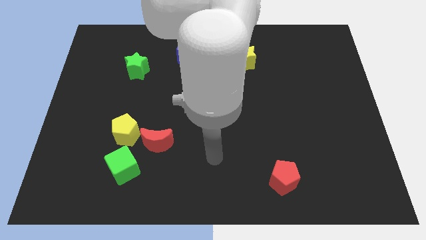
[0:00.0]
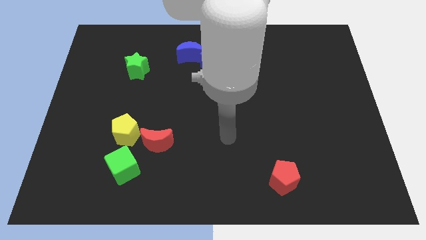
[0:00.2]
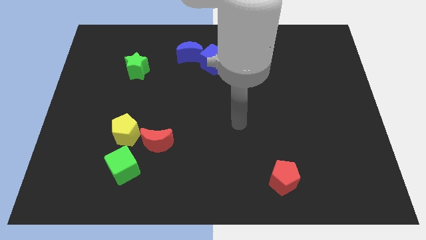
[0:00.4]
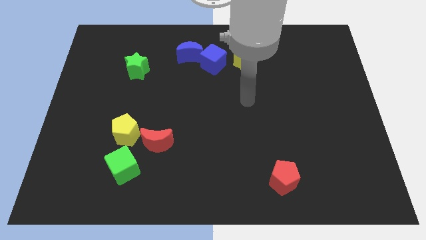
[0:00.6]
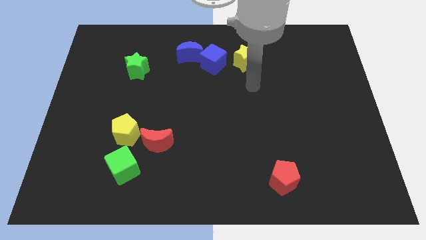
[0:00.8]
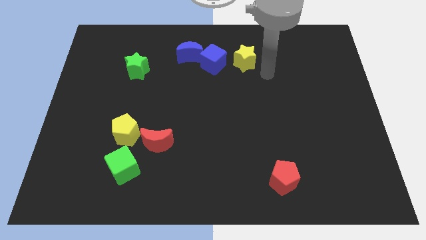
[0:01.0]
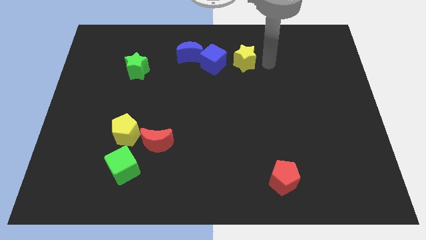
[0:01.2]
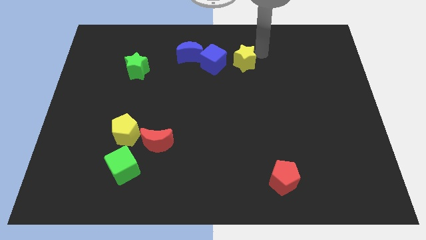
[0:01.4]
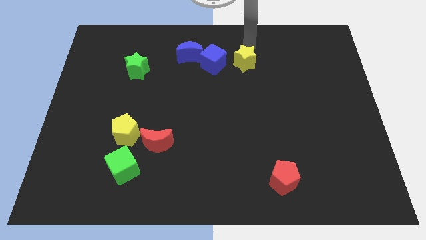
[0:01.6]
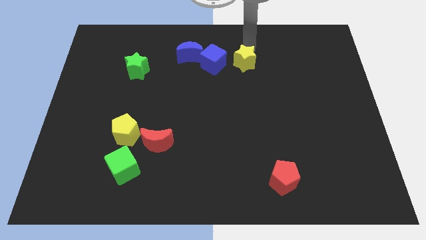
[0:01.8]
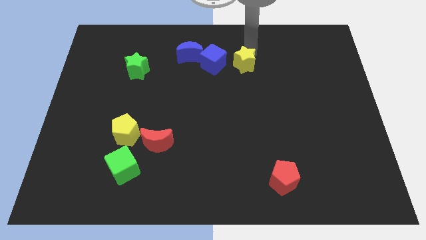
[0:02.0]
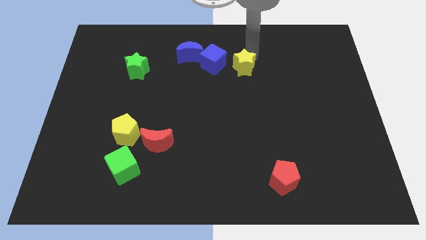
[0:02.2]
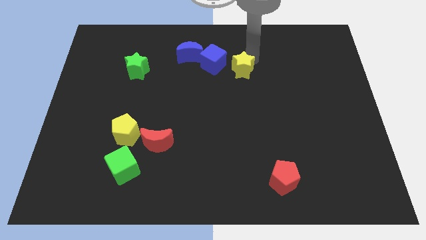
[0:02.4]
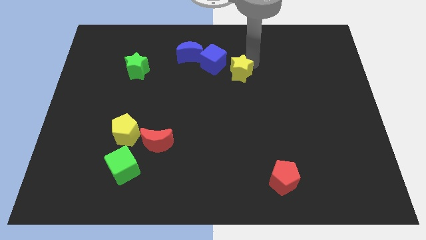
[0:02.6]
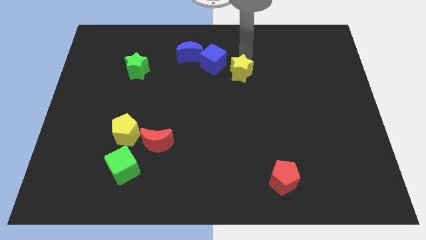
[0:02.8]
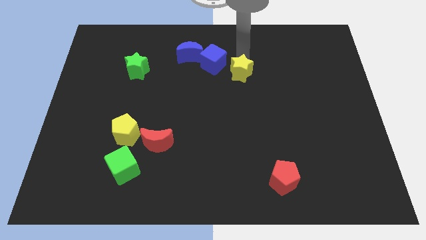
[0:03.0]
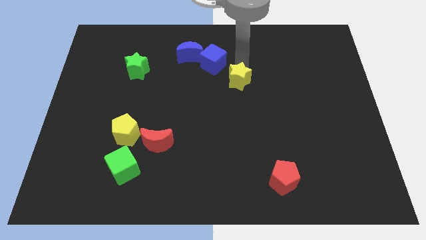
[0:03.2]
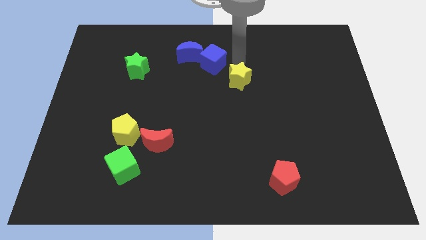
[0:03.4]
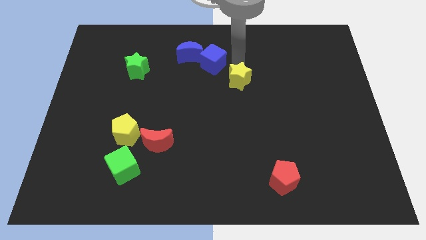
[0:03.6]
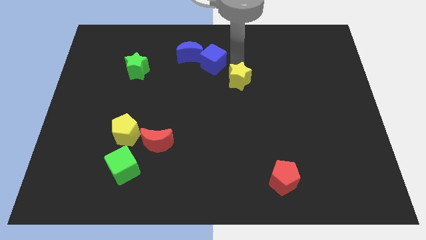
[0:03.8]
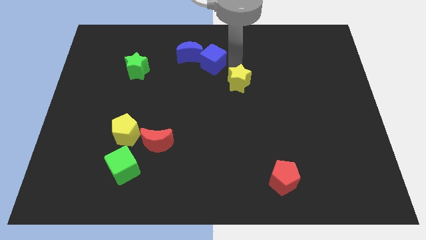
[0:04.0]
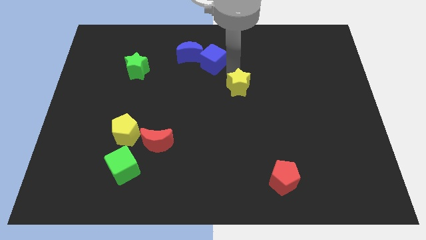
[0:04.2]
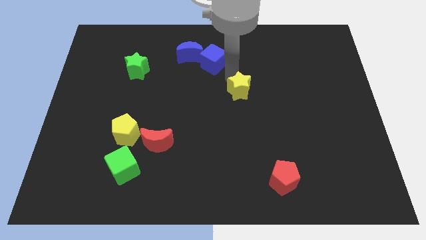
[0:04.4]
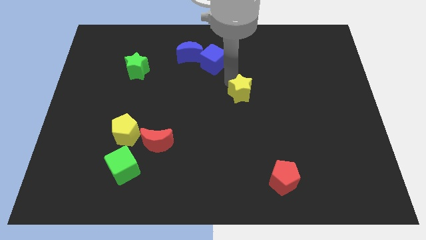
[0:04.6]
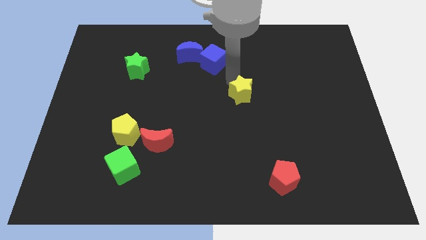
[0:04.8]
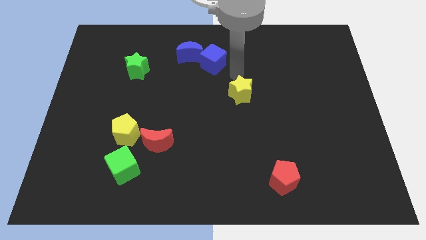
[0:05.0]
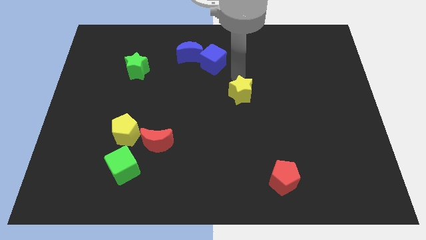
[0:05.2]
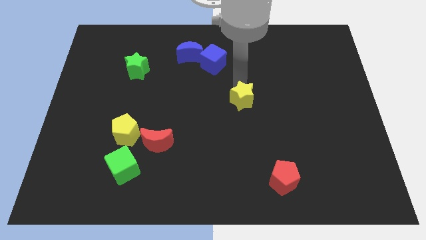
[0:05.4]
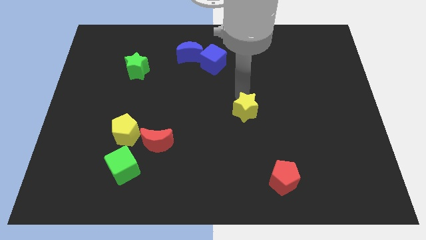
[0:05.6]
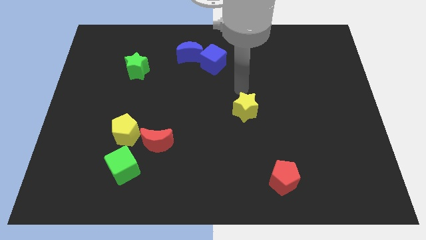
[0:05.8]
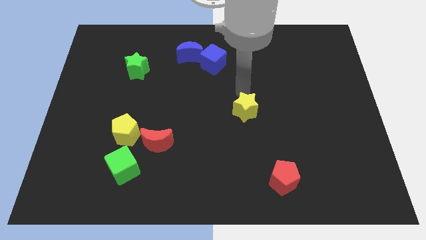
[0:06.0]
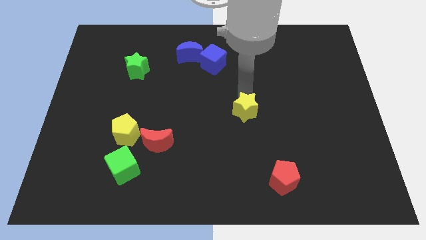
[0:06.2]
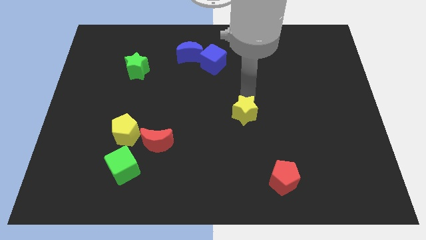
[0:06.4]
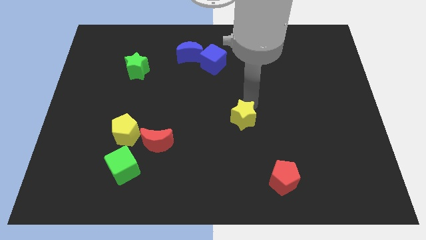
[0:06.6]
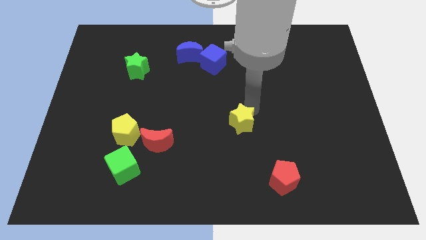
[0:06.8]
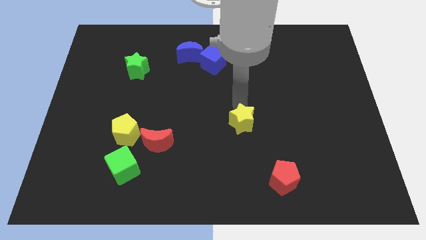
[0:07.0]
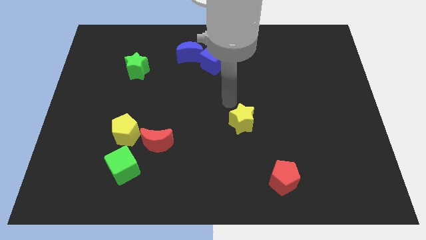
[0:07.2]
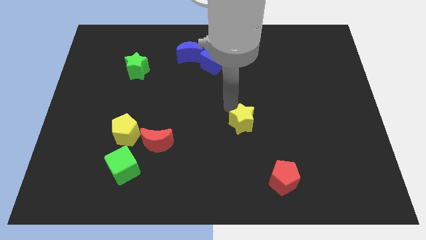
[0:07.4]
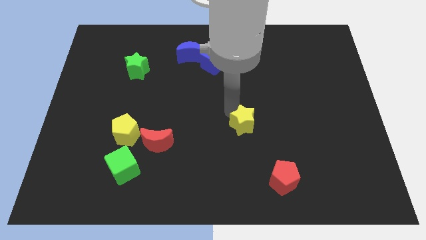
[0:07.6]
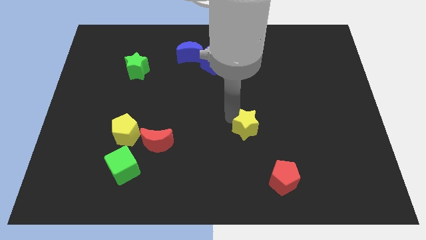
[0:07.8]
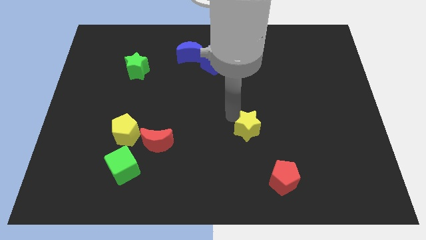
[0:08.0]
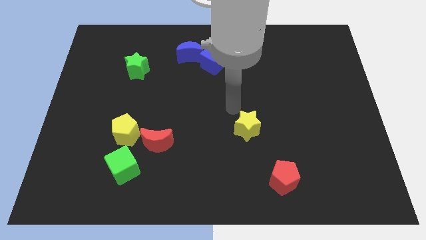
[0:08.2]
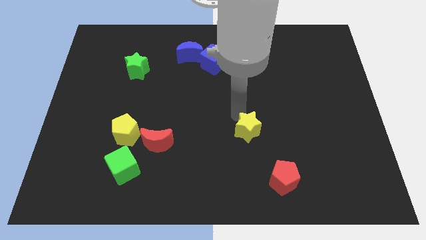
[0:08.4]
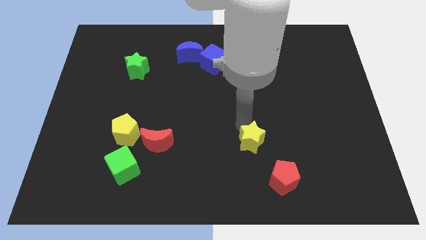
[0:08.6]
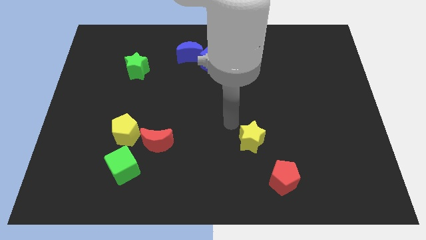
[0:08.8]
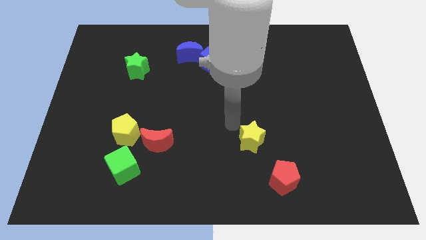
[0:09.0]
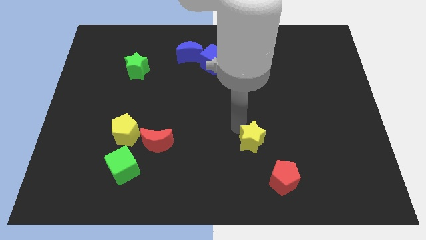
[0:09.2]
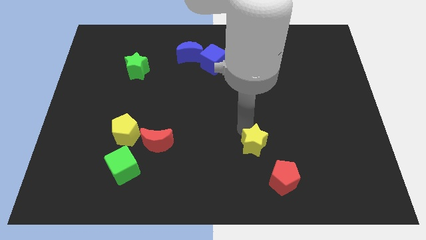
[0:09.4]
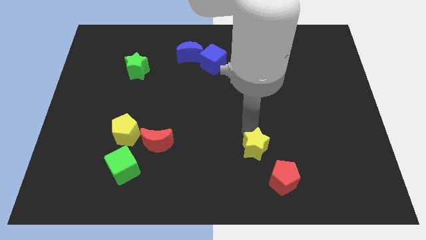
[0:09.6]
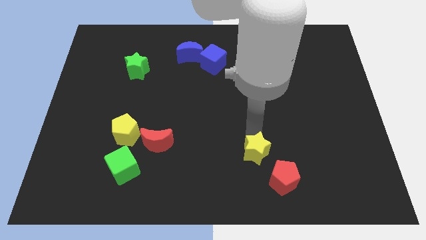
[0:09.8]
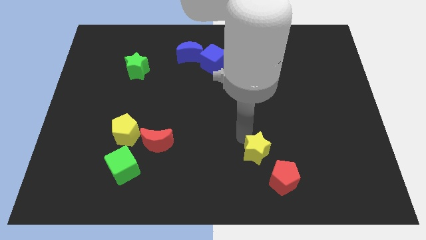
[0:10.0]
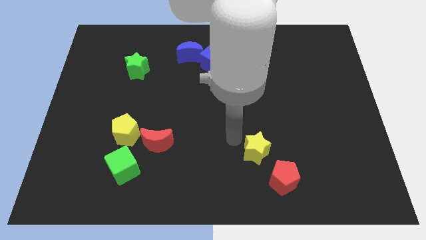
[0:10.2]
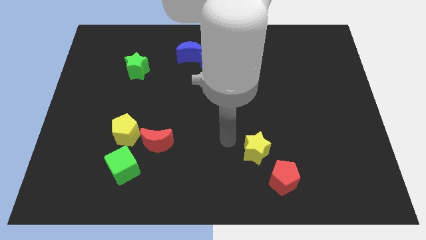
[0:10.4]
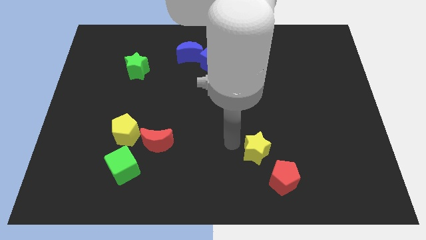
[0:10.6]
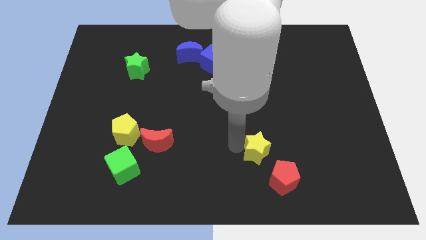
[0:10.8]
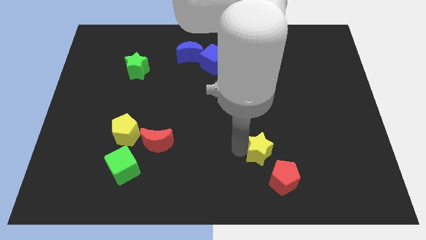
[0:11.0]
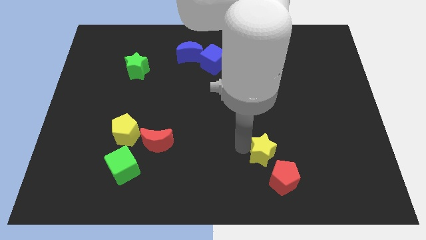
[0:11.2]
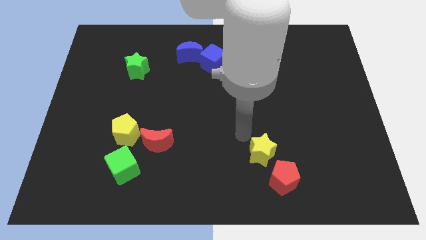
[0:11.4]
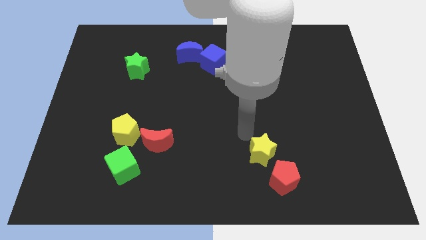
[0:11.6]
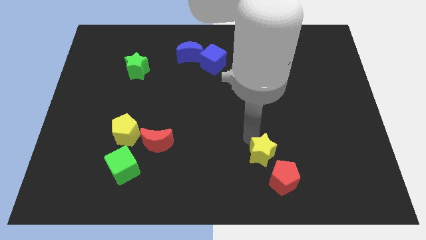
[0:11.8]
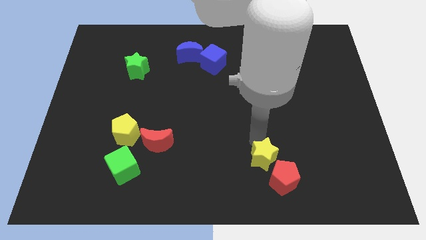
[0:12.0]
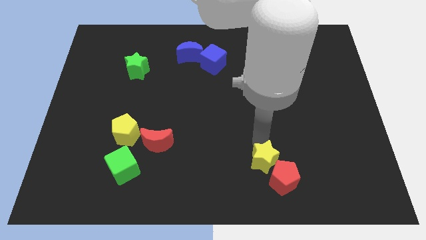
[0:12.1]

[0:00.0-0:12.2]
put the yellow star next to the red pentagon
